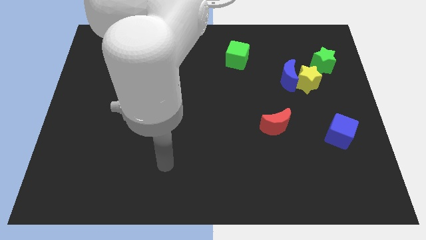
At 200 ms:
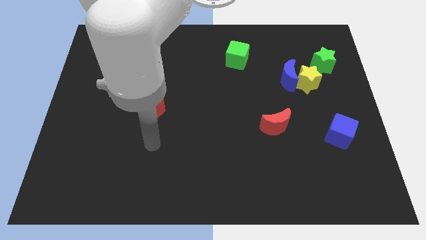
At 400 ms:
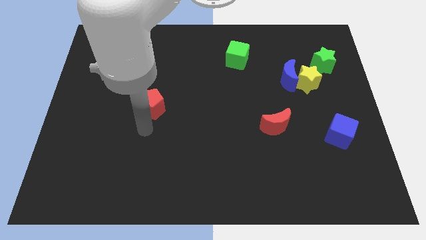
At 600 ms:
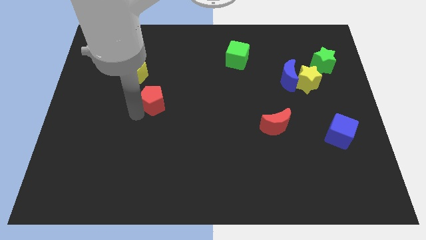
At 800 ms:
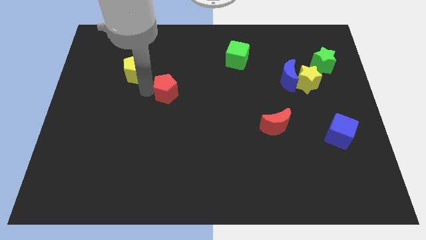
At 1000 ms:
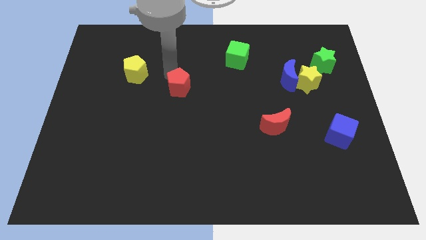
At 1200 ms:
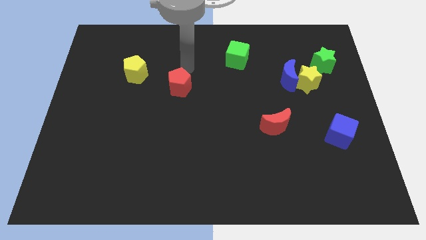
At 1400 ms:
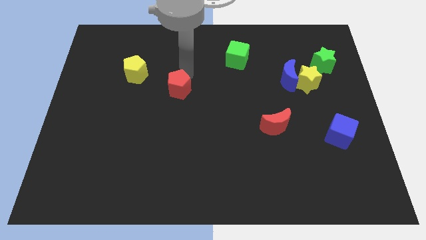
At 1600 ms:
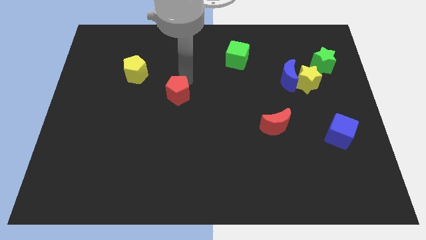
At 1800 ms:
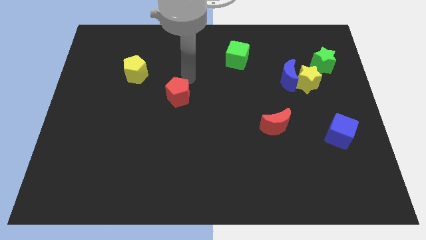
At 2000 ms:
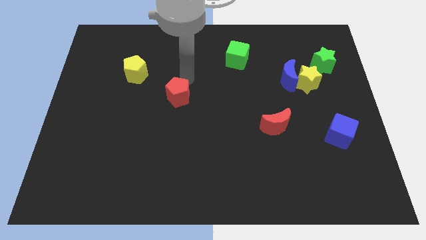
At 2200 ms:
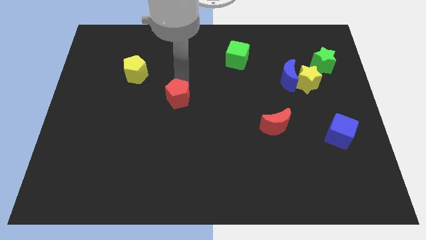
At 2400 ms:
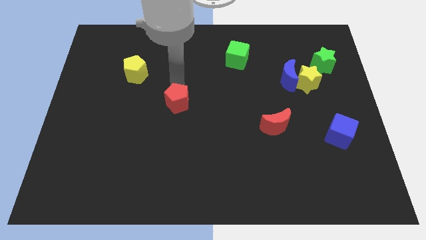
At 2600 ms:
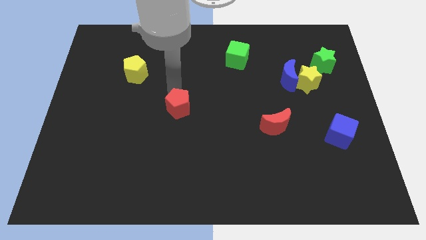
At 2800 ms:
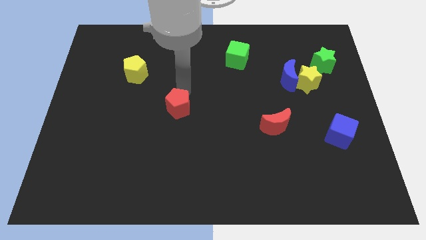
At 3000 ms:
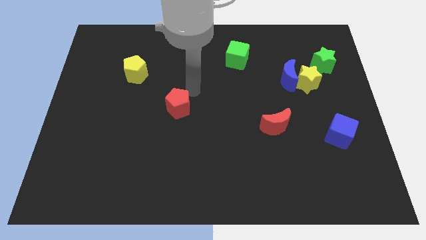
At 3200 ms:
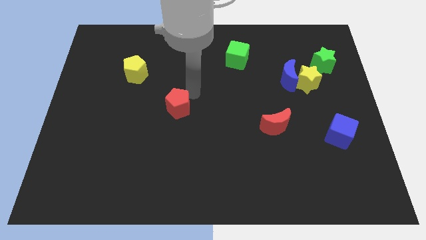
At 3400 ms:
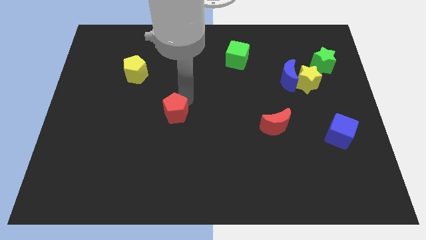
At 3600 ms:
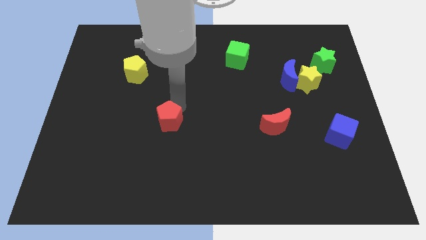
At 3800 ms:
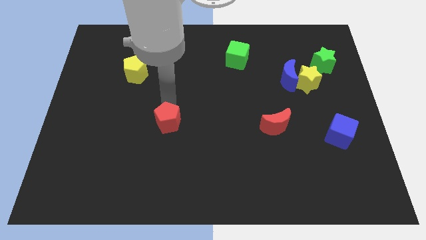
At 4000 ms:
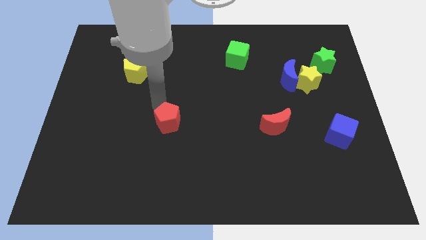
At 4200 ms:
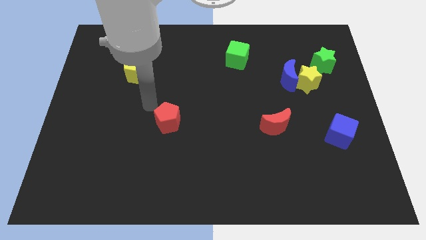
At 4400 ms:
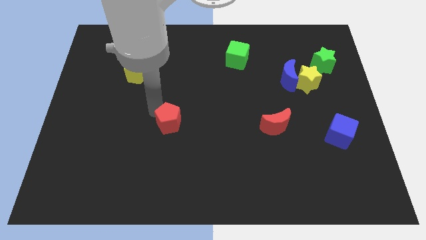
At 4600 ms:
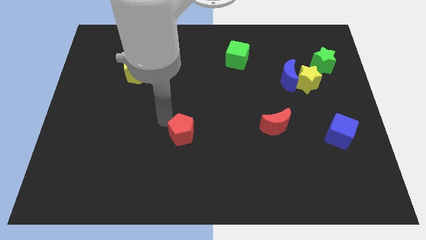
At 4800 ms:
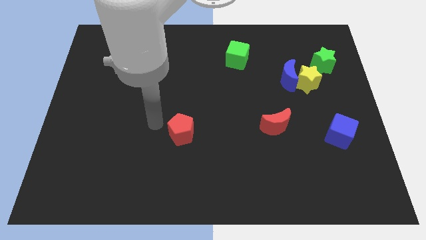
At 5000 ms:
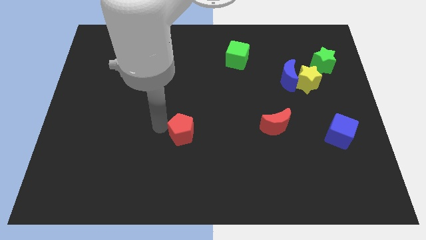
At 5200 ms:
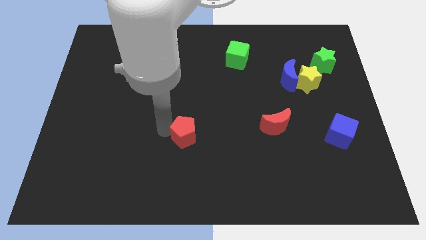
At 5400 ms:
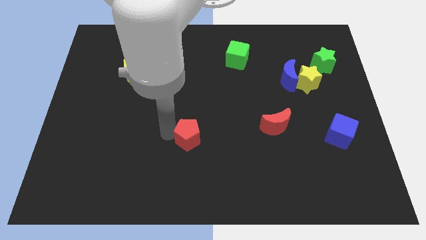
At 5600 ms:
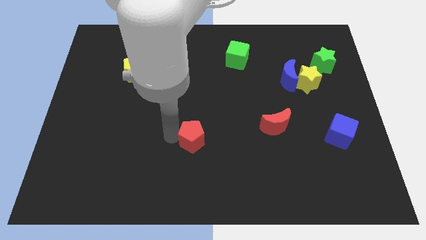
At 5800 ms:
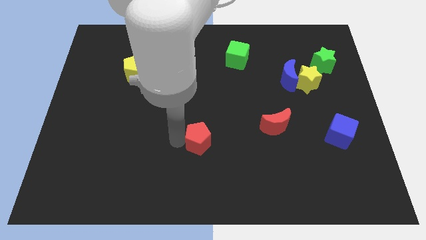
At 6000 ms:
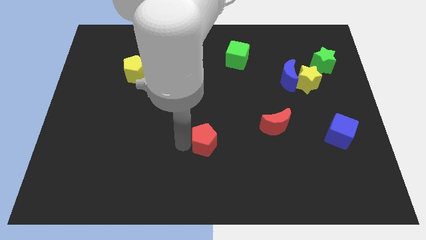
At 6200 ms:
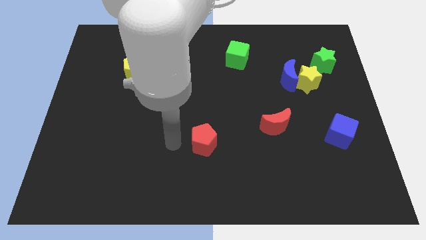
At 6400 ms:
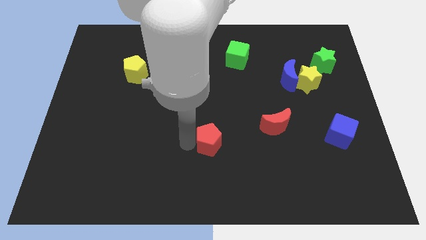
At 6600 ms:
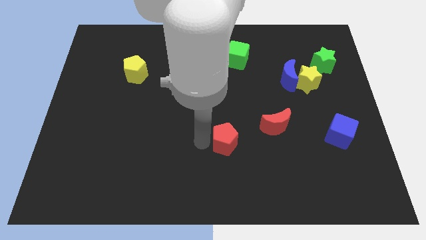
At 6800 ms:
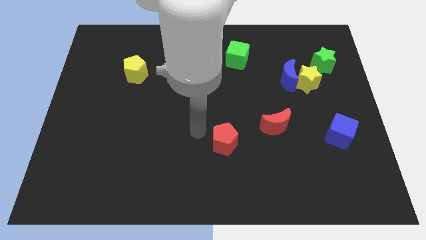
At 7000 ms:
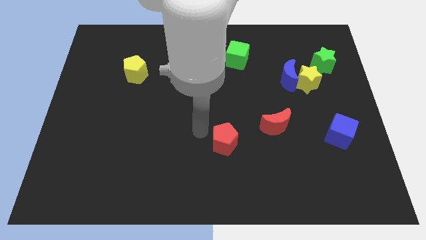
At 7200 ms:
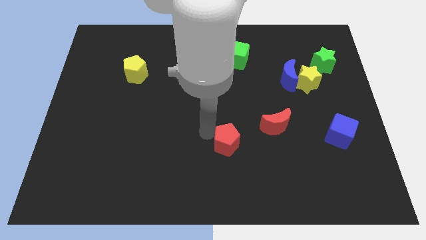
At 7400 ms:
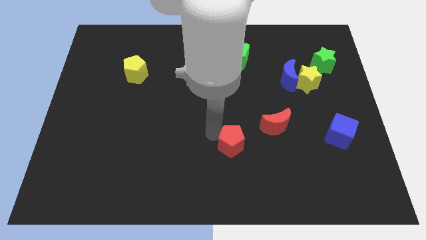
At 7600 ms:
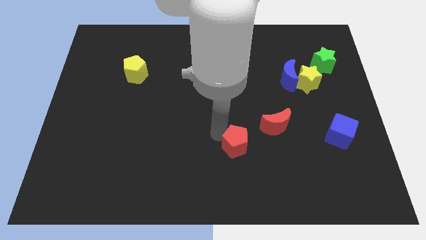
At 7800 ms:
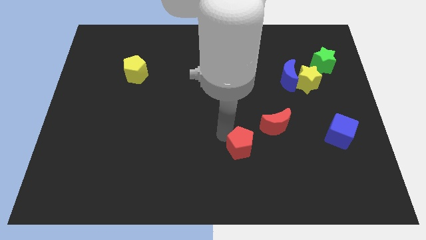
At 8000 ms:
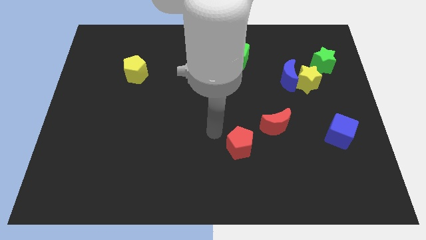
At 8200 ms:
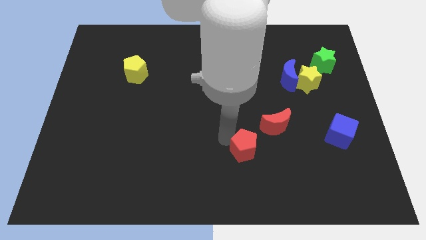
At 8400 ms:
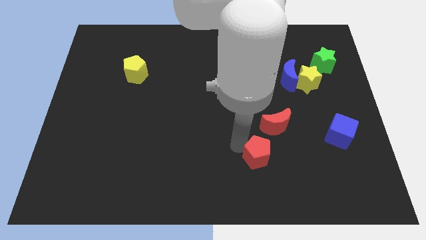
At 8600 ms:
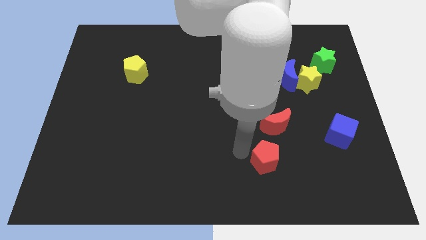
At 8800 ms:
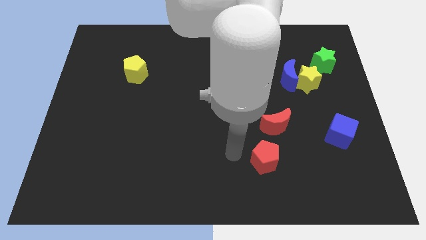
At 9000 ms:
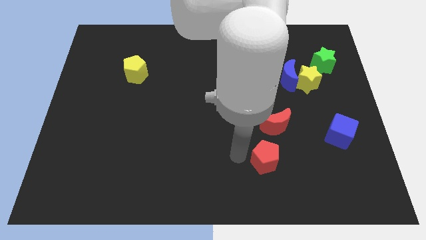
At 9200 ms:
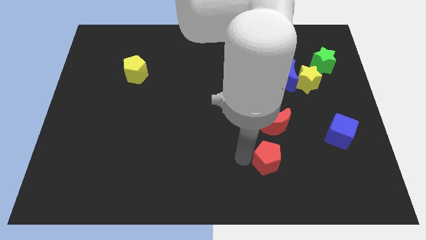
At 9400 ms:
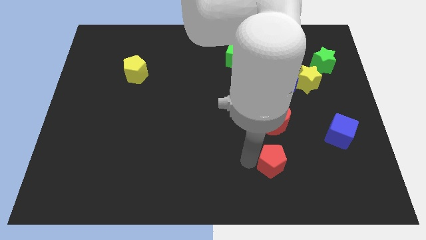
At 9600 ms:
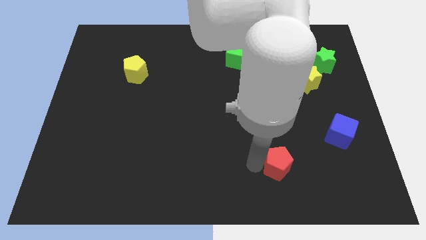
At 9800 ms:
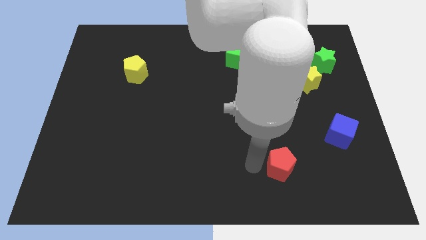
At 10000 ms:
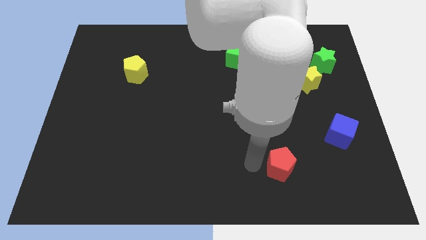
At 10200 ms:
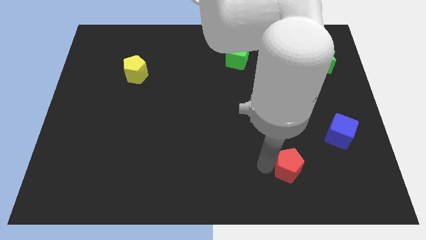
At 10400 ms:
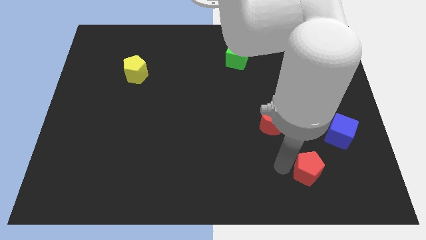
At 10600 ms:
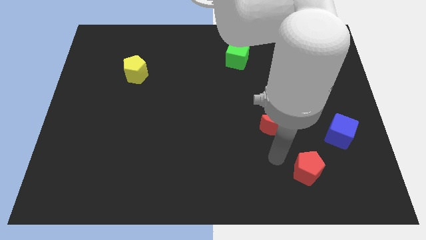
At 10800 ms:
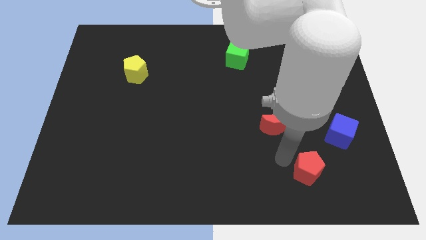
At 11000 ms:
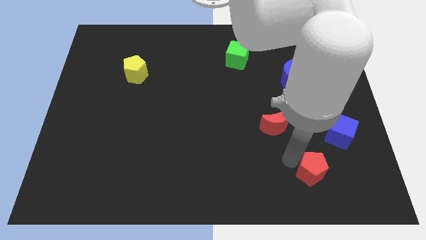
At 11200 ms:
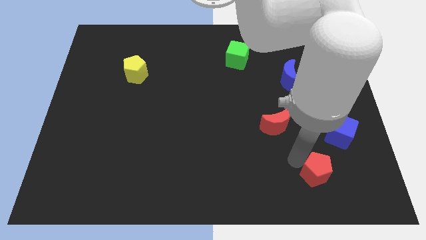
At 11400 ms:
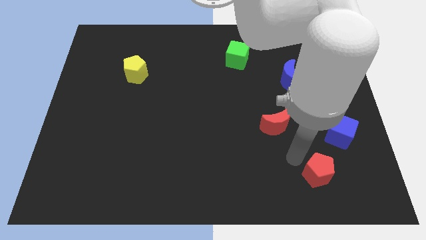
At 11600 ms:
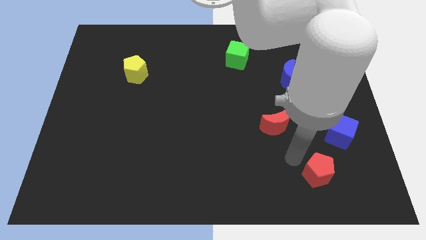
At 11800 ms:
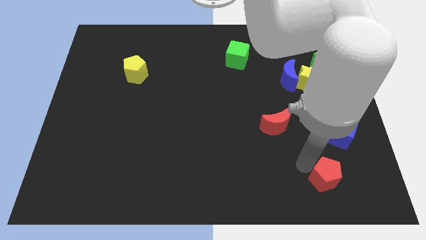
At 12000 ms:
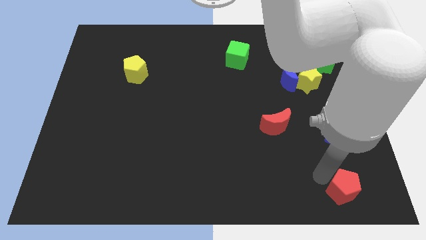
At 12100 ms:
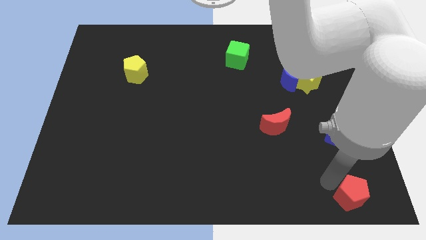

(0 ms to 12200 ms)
put the red pentagon to the lower right corner

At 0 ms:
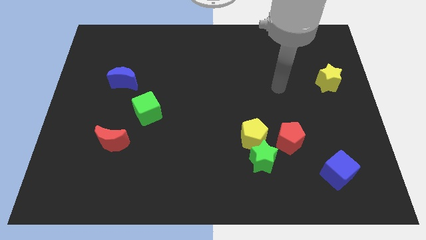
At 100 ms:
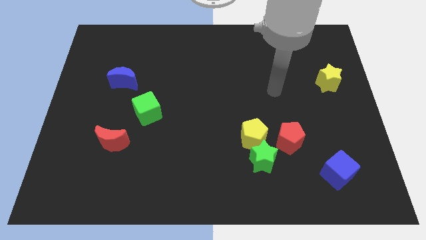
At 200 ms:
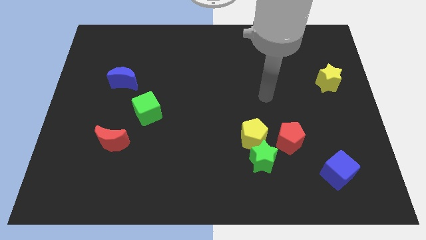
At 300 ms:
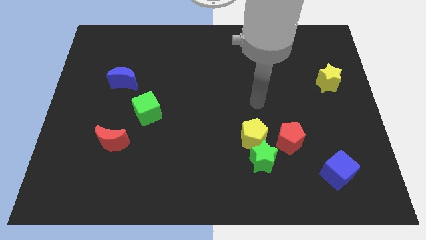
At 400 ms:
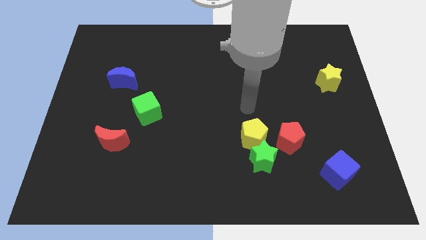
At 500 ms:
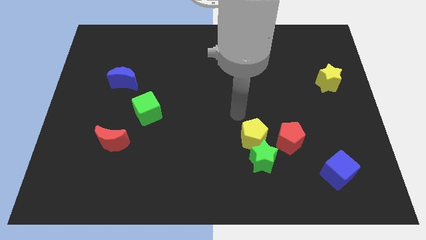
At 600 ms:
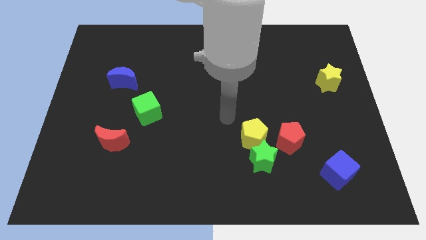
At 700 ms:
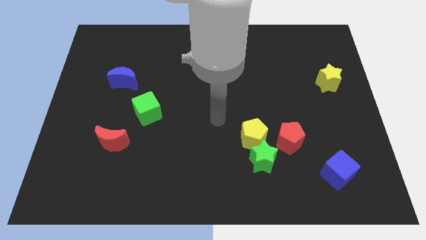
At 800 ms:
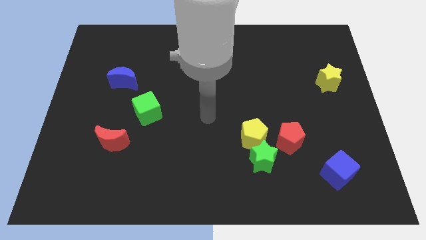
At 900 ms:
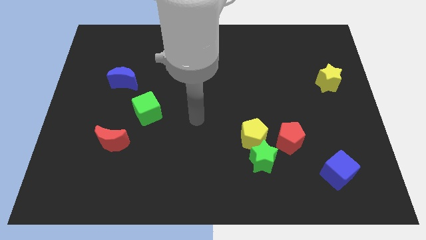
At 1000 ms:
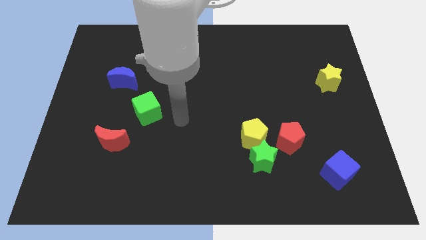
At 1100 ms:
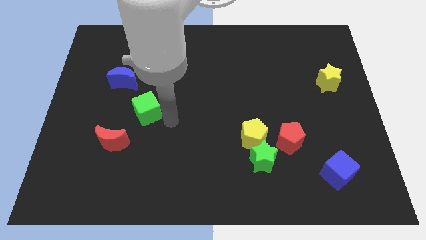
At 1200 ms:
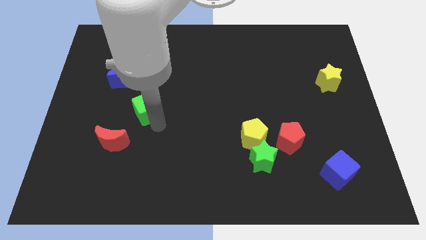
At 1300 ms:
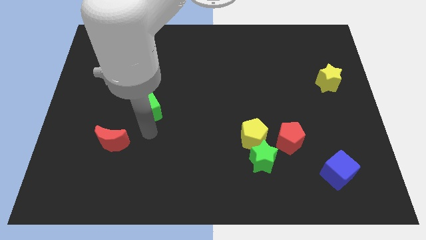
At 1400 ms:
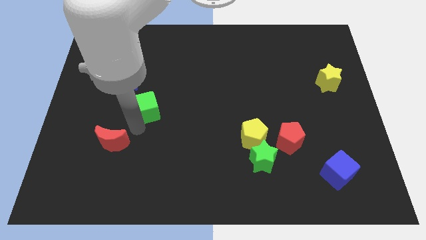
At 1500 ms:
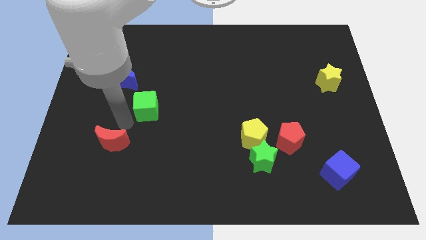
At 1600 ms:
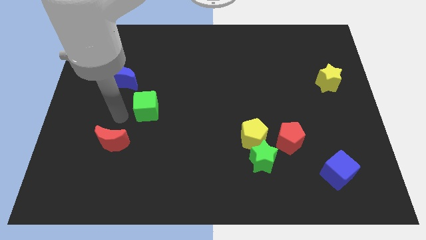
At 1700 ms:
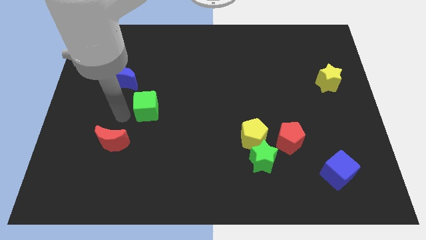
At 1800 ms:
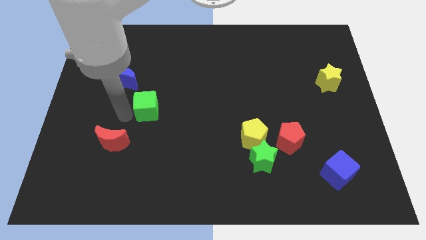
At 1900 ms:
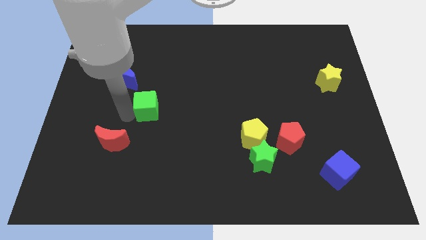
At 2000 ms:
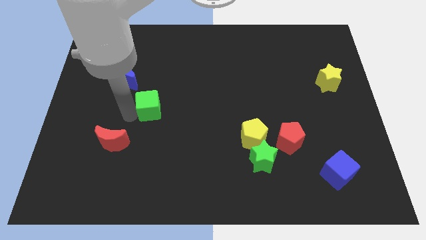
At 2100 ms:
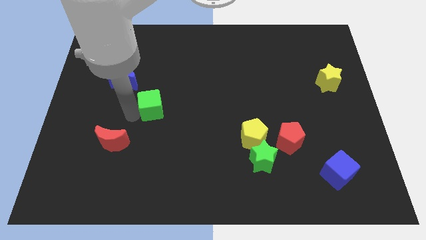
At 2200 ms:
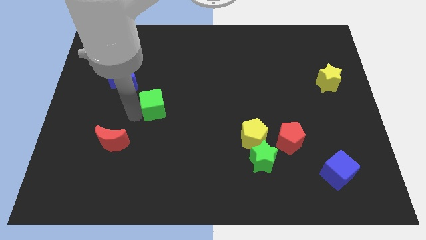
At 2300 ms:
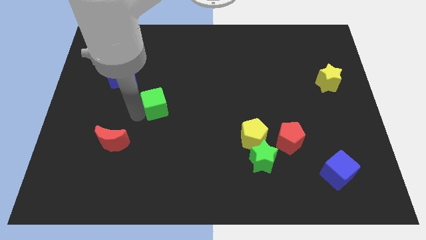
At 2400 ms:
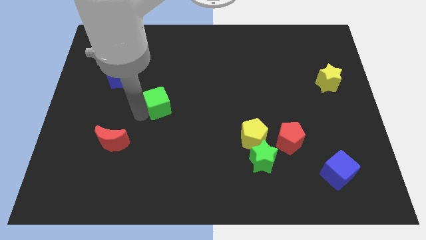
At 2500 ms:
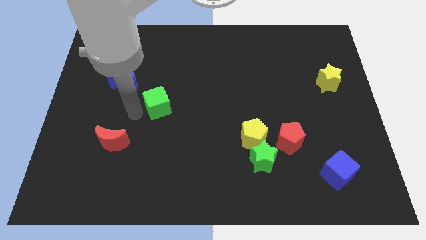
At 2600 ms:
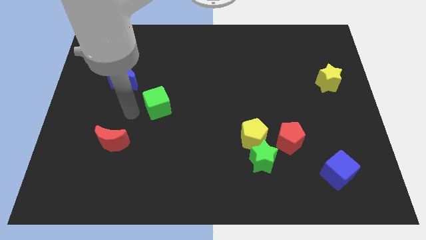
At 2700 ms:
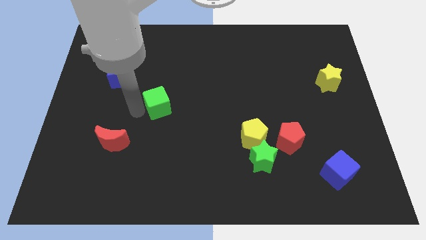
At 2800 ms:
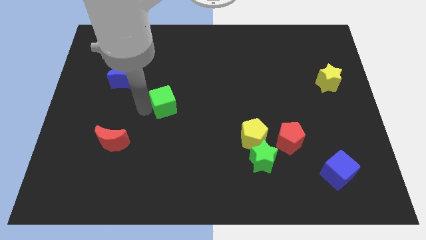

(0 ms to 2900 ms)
push the green cube to the middle
